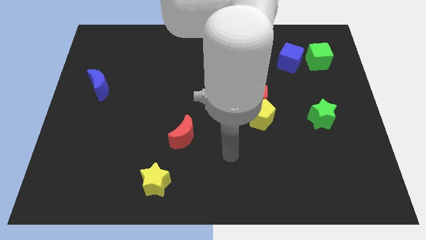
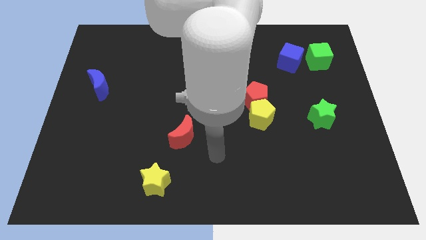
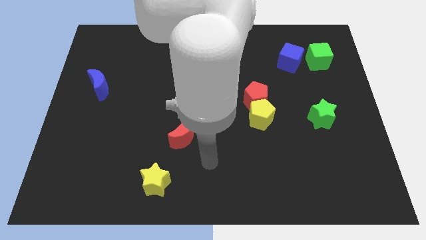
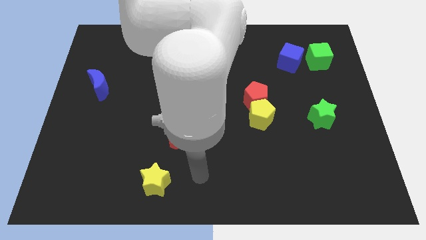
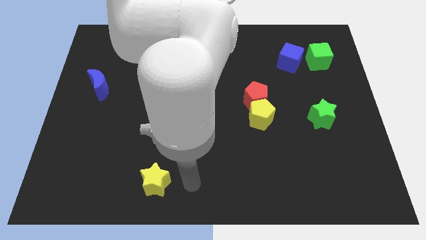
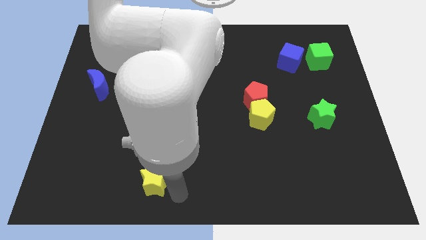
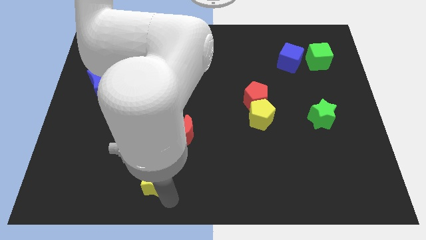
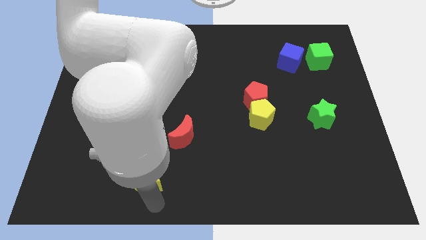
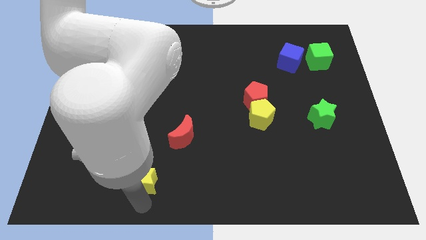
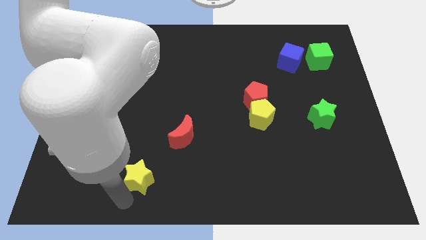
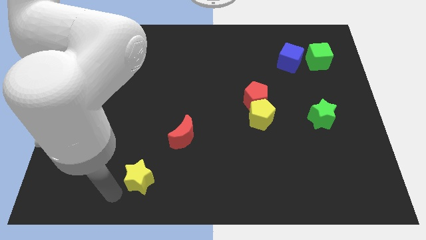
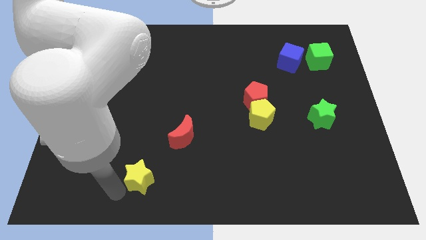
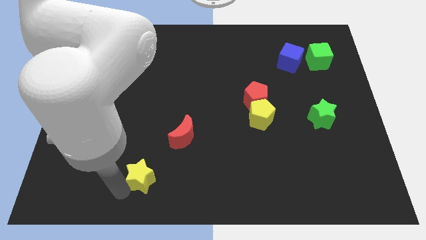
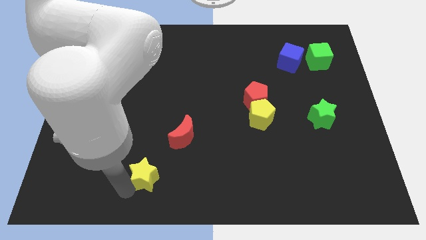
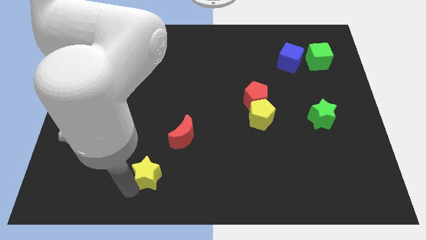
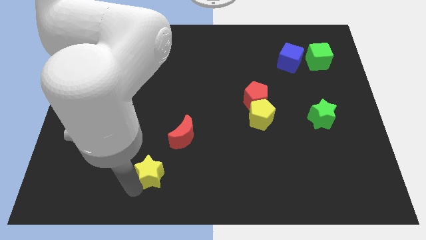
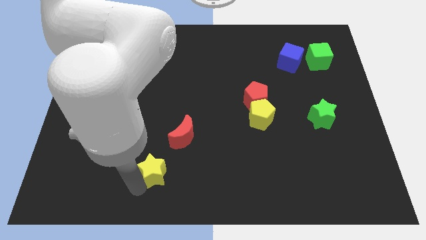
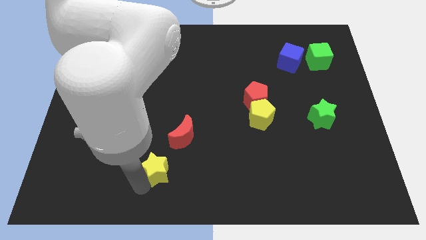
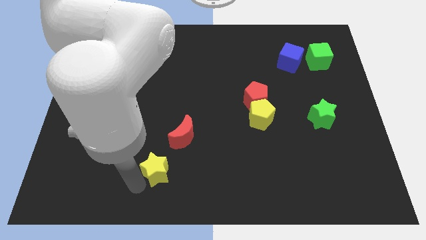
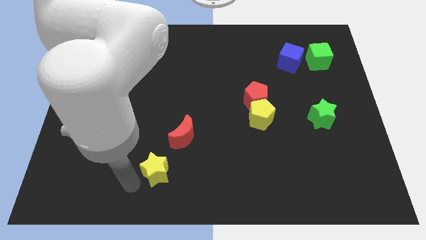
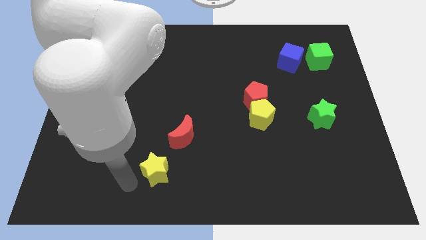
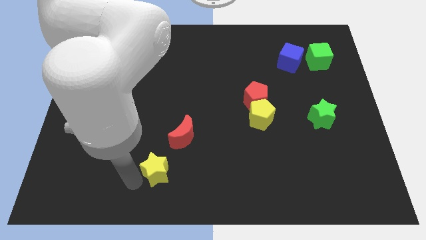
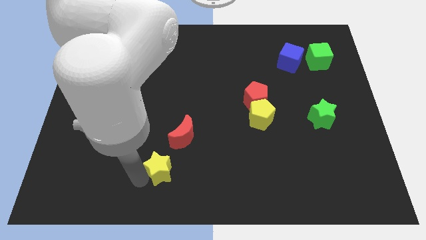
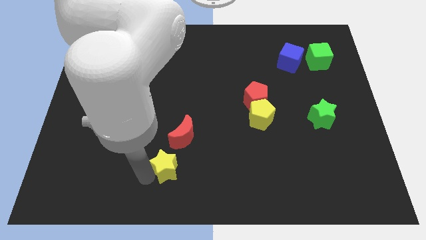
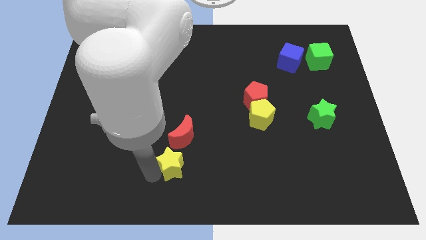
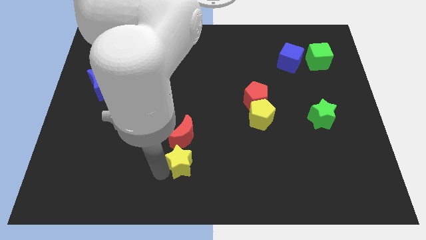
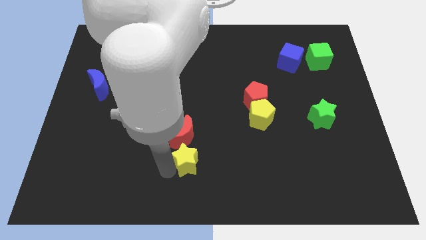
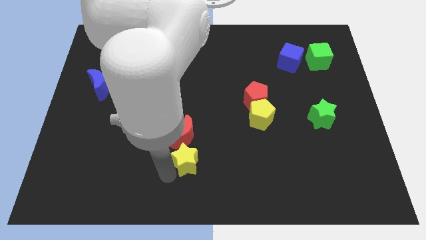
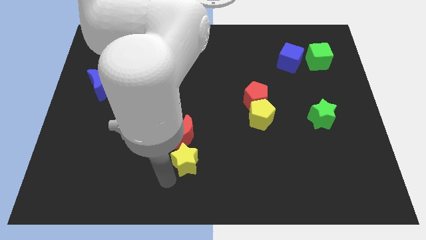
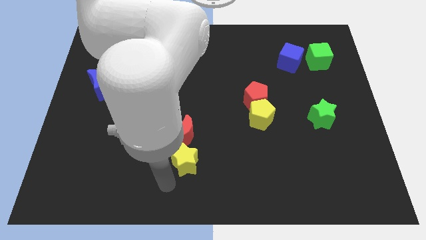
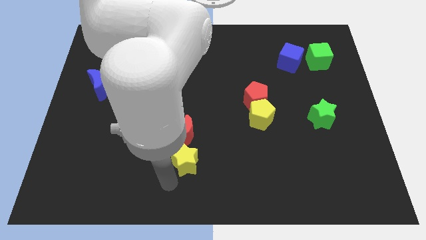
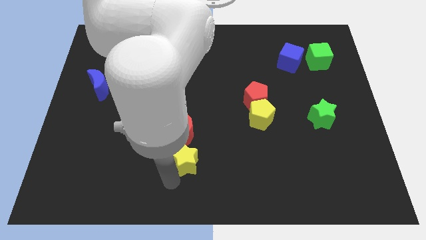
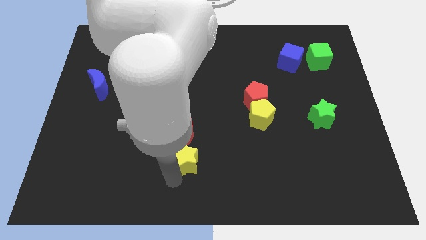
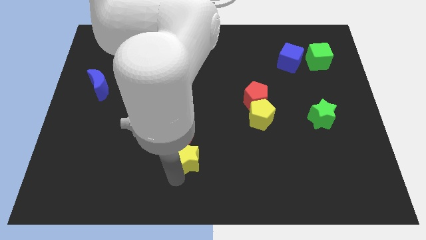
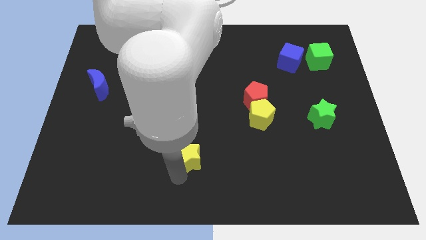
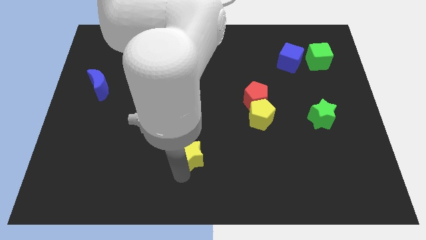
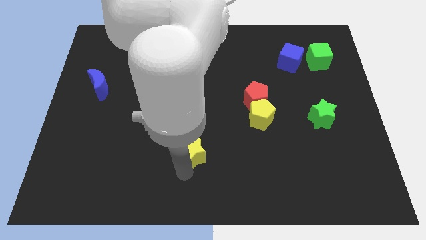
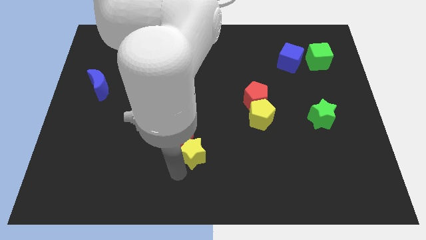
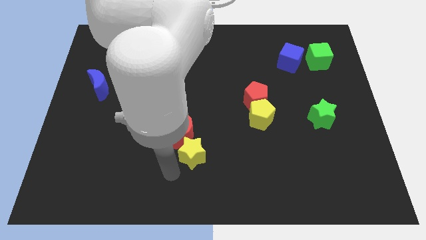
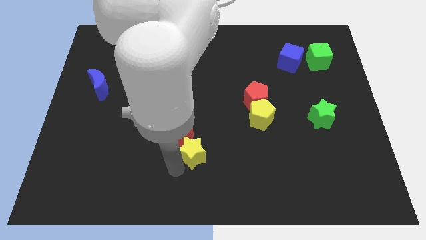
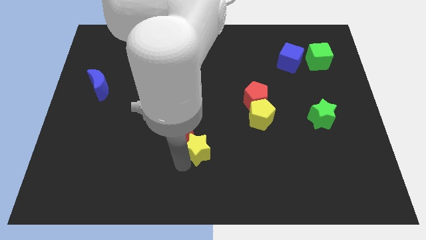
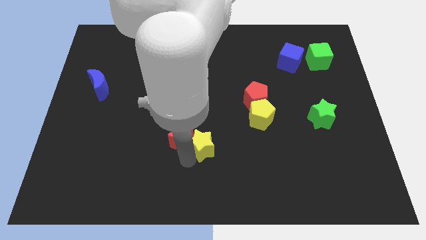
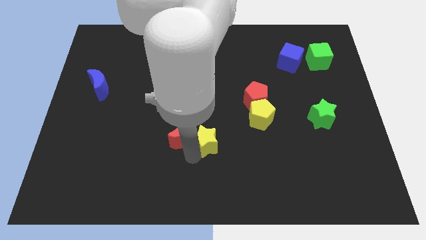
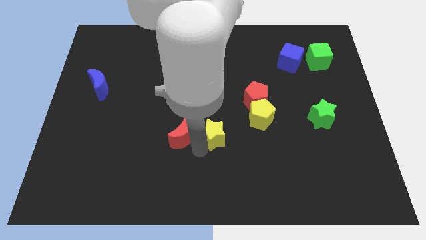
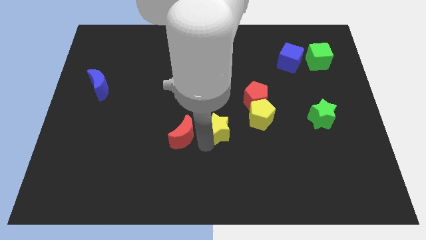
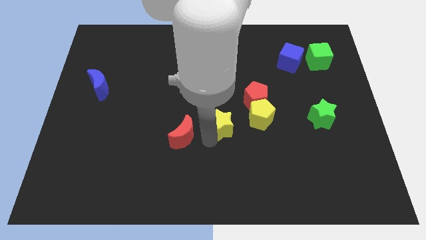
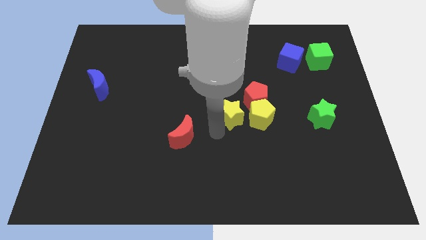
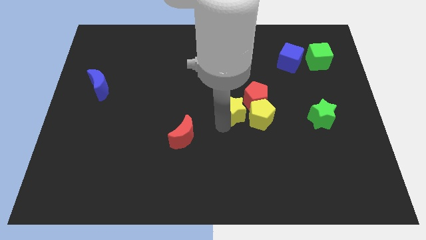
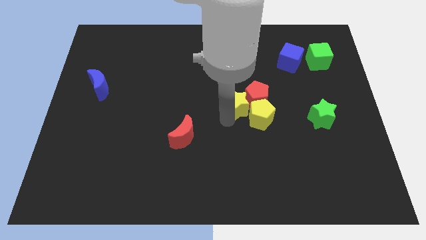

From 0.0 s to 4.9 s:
push the yellow star close to the red pentagon

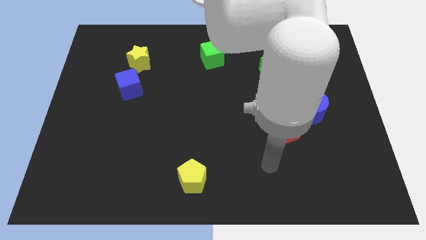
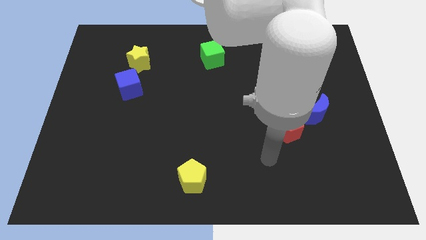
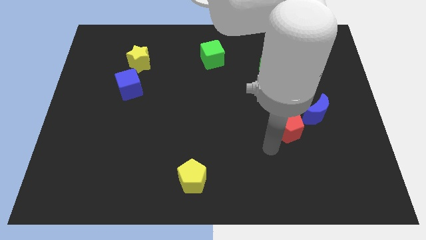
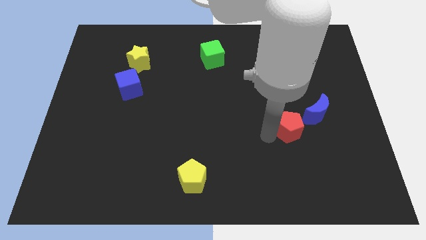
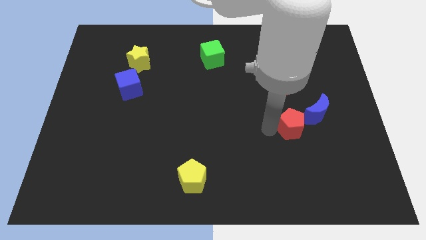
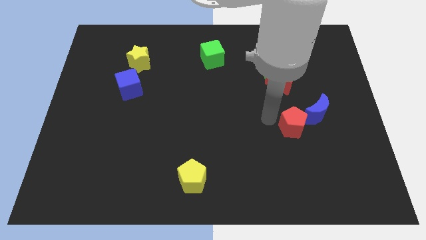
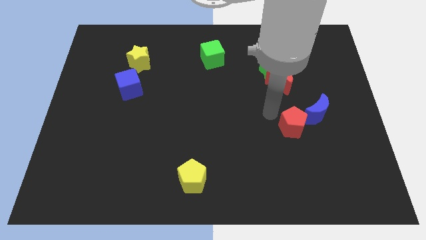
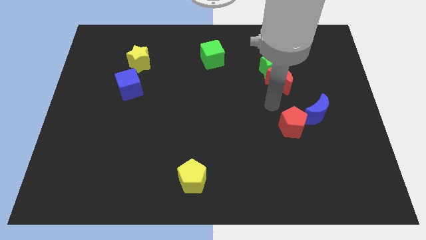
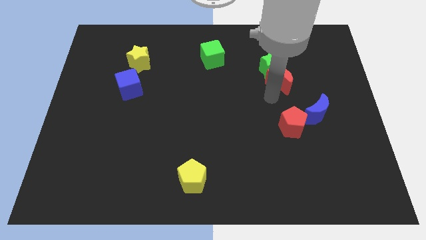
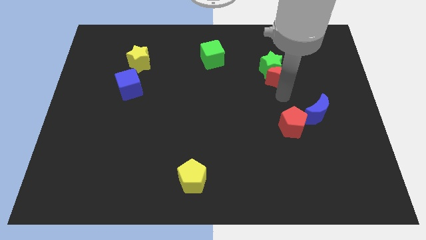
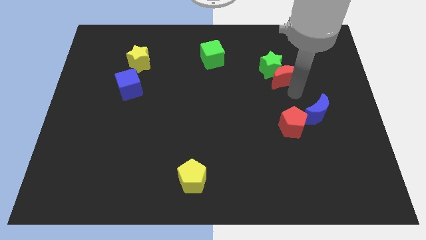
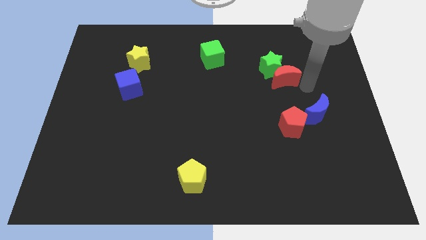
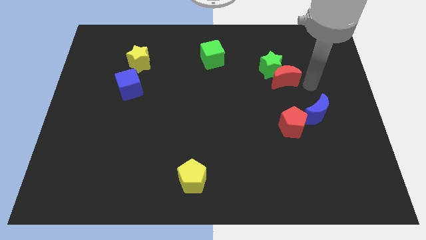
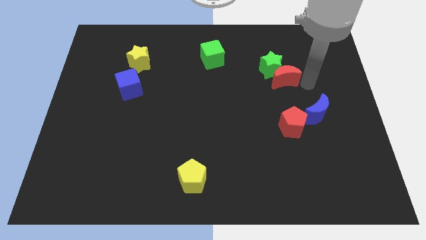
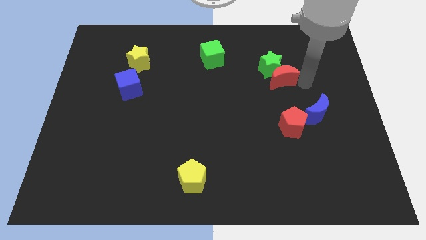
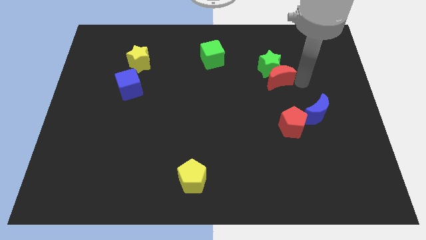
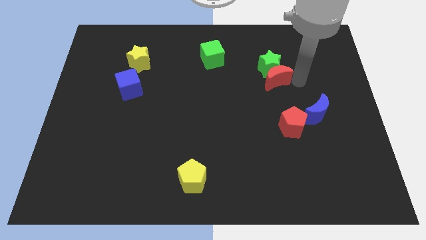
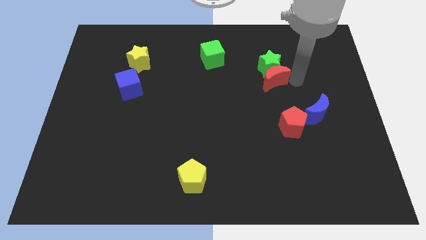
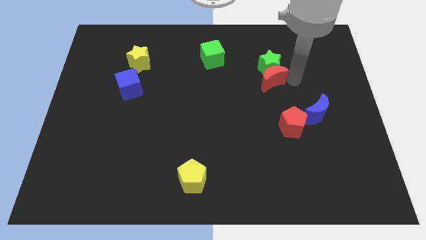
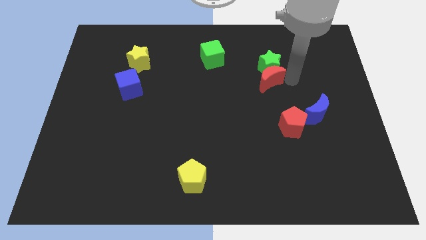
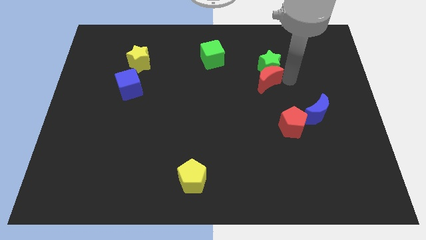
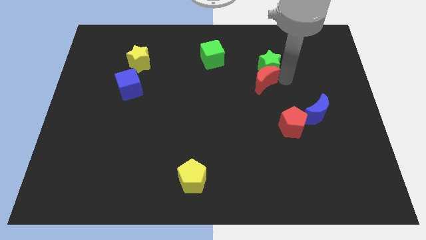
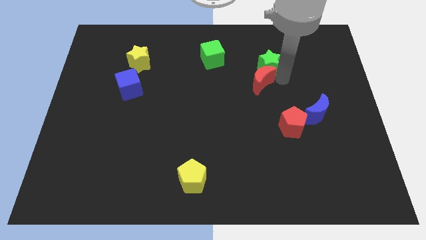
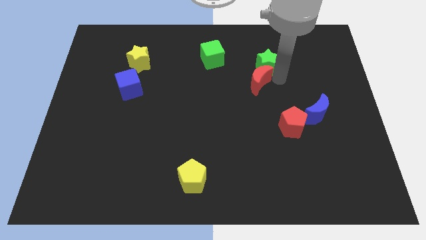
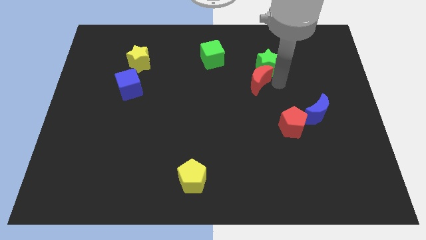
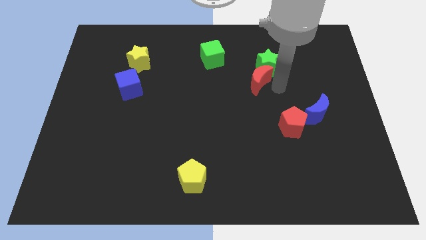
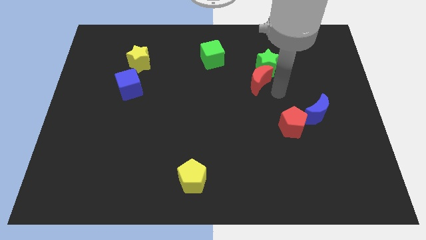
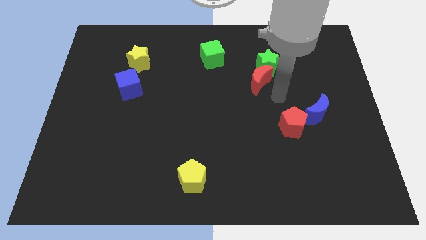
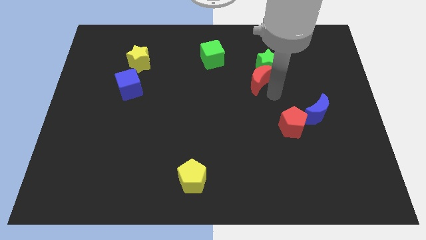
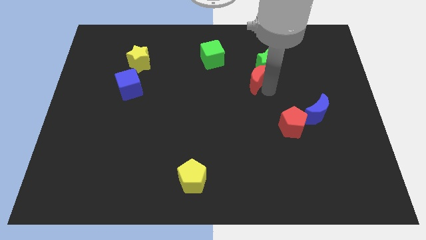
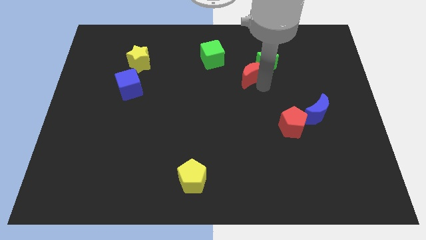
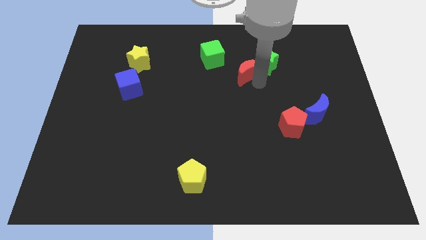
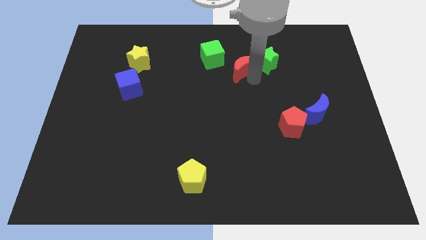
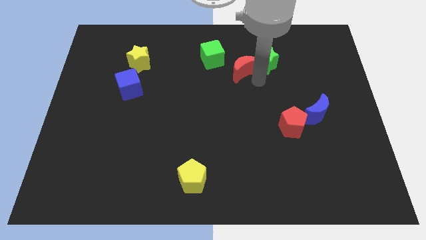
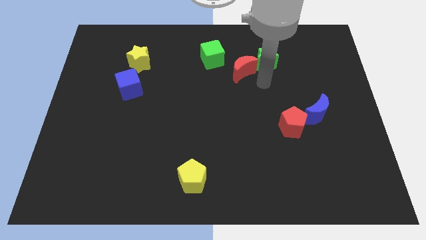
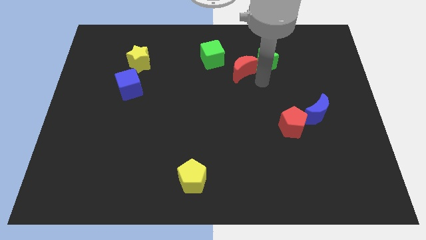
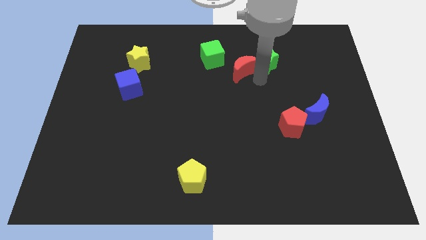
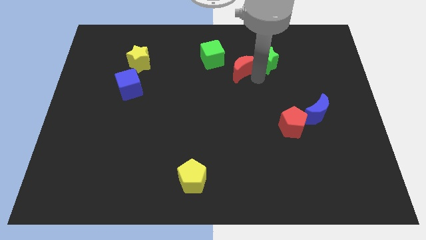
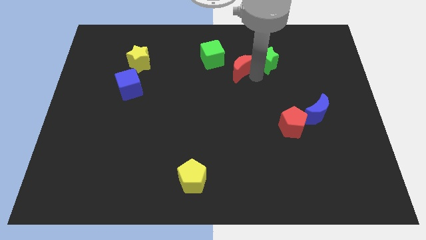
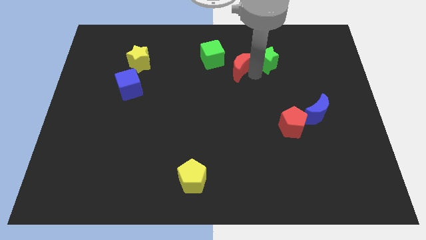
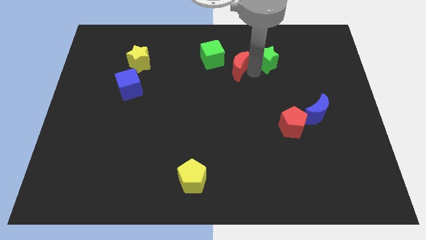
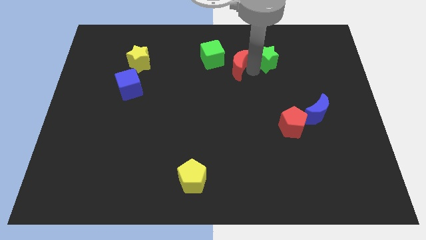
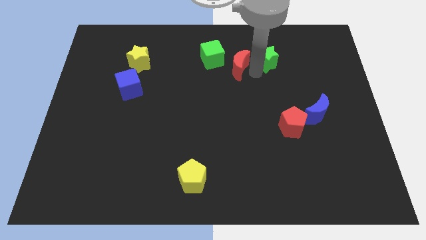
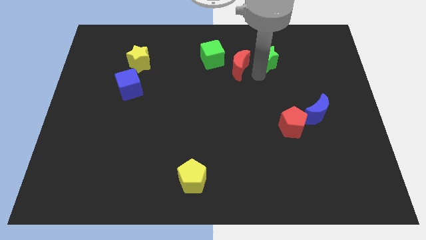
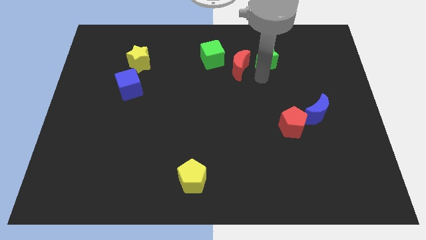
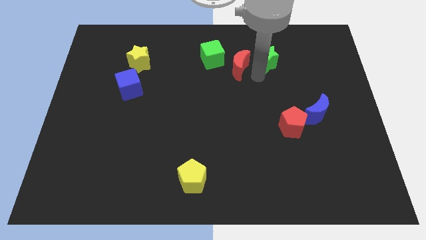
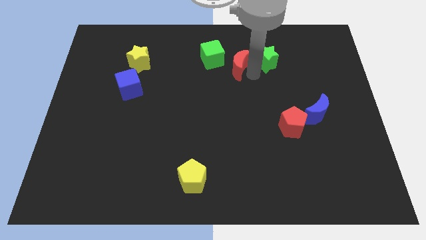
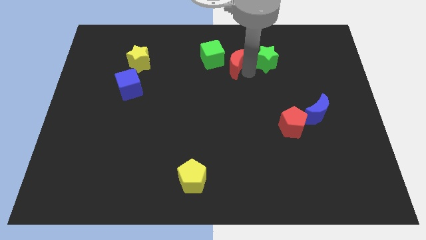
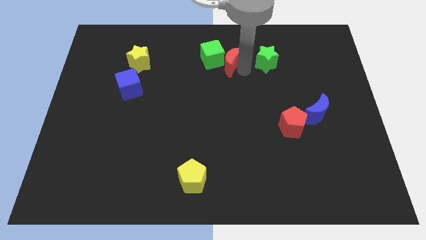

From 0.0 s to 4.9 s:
put the red moon towards the green cube
